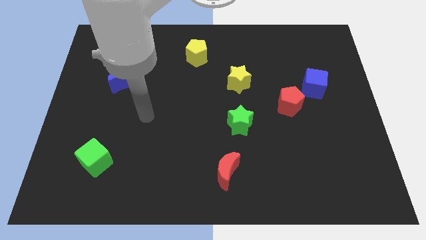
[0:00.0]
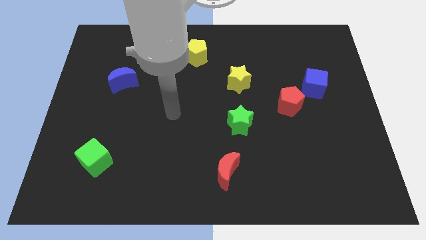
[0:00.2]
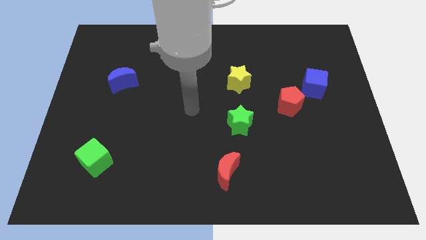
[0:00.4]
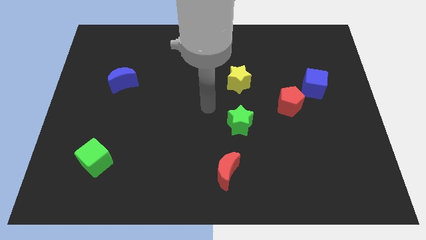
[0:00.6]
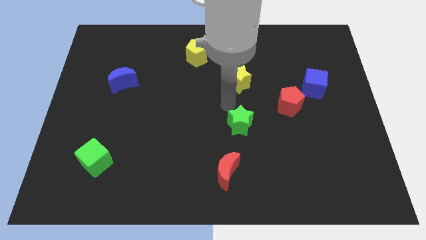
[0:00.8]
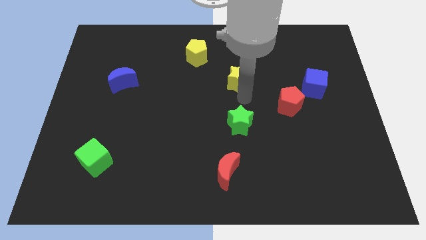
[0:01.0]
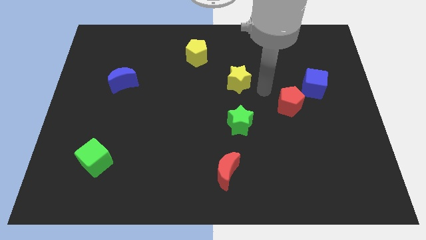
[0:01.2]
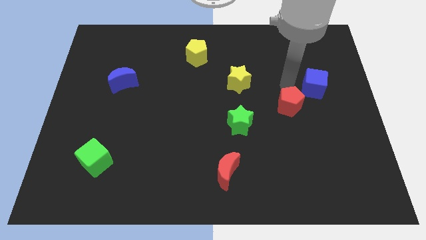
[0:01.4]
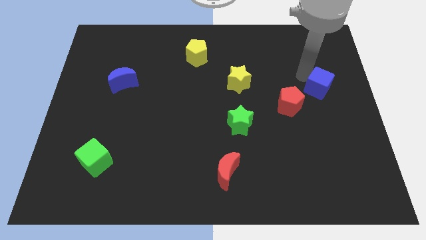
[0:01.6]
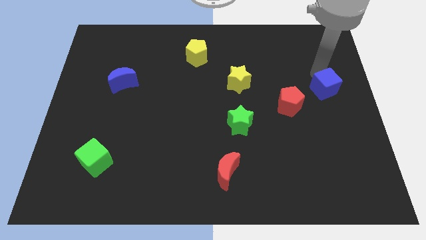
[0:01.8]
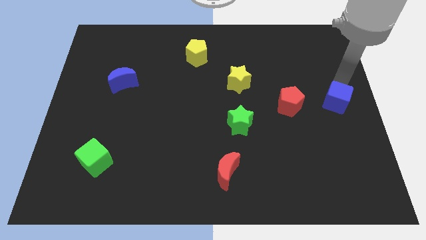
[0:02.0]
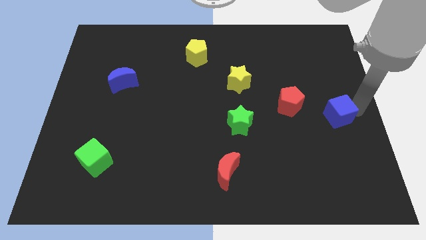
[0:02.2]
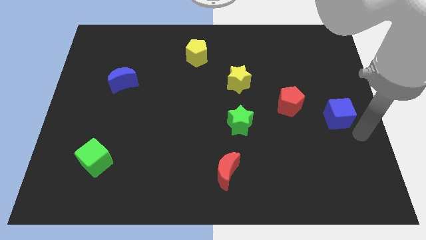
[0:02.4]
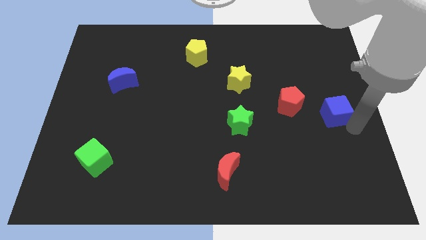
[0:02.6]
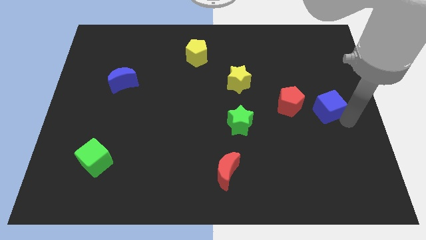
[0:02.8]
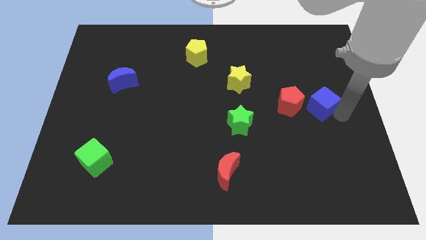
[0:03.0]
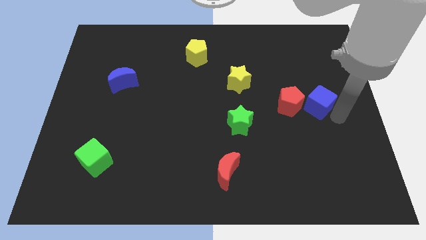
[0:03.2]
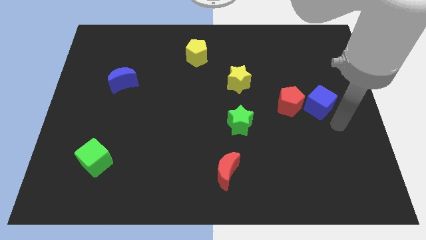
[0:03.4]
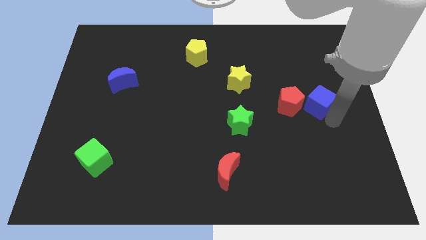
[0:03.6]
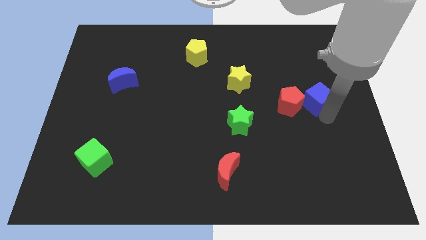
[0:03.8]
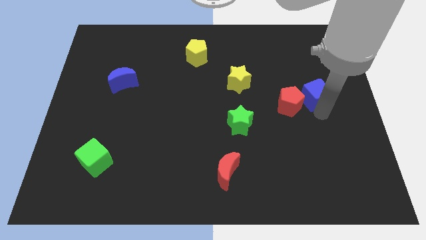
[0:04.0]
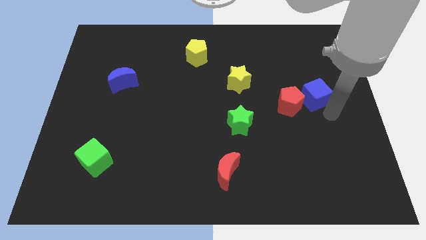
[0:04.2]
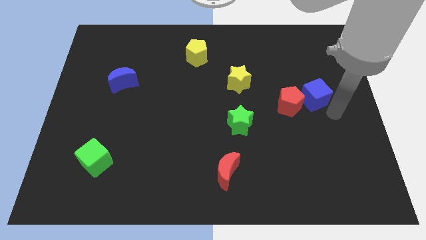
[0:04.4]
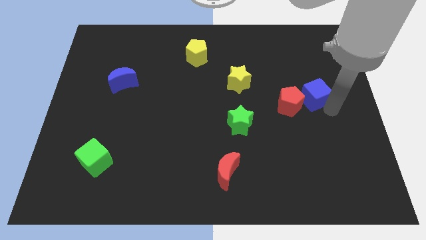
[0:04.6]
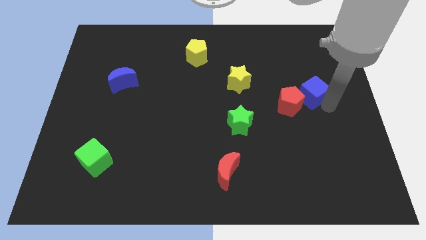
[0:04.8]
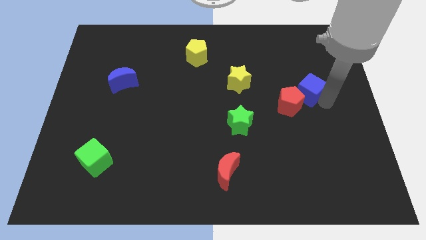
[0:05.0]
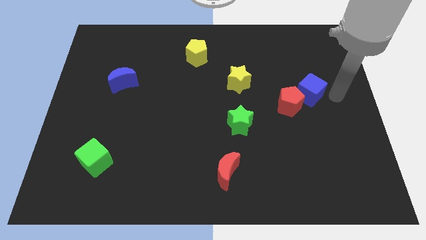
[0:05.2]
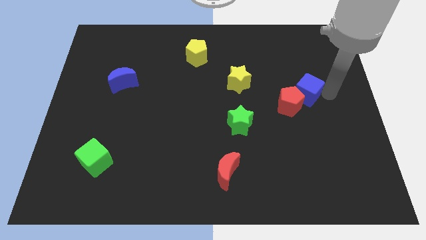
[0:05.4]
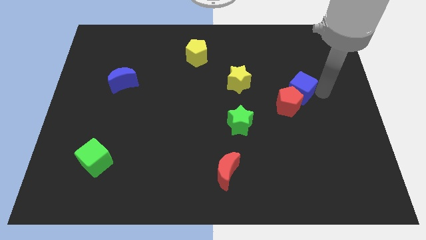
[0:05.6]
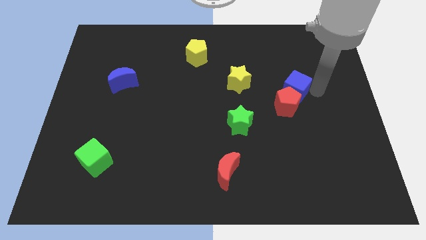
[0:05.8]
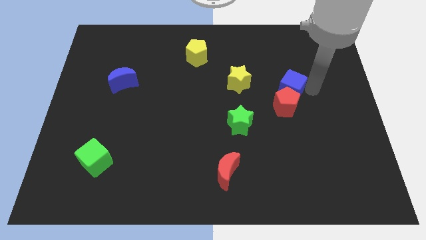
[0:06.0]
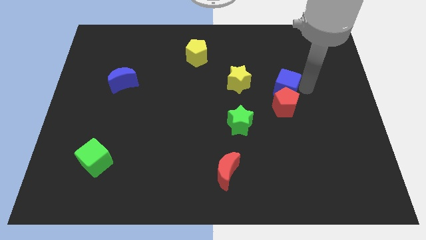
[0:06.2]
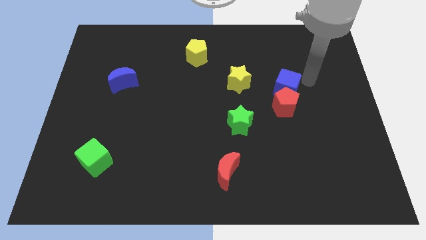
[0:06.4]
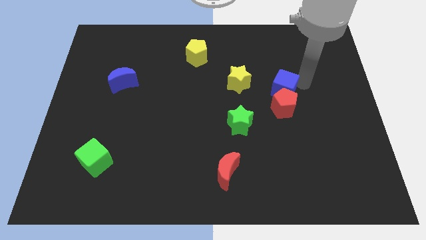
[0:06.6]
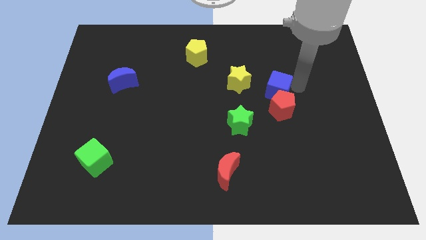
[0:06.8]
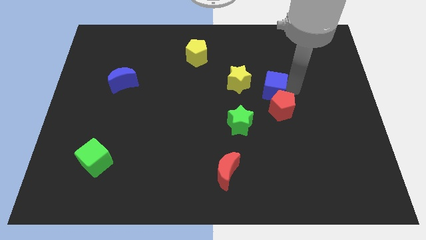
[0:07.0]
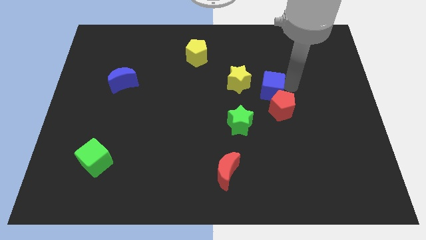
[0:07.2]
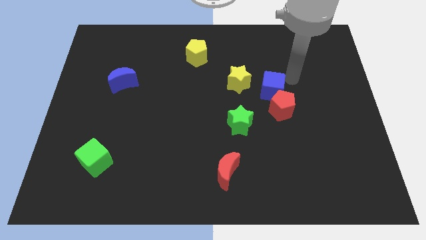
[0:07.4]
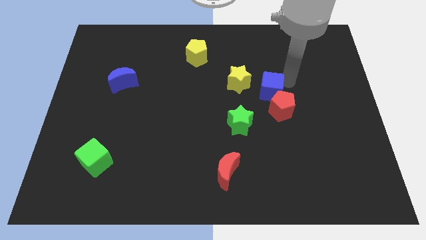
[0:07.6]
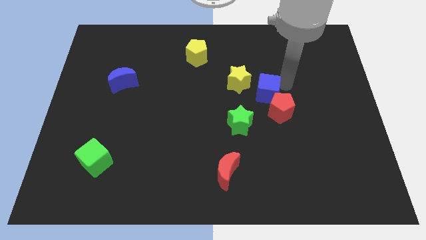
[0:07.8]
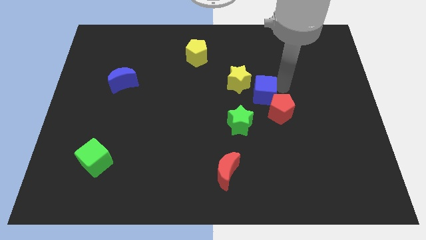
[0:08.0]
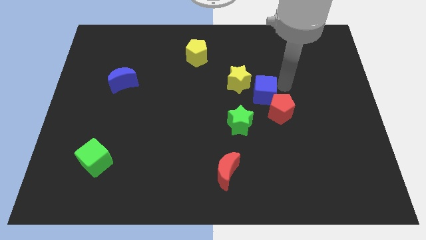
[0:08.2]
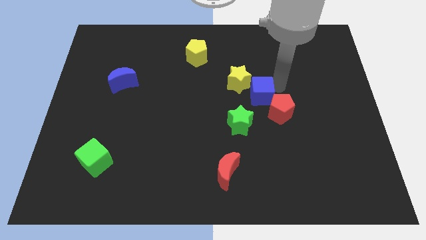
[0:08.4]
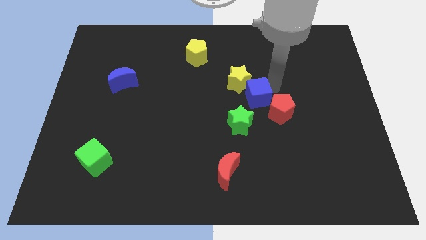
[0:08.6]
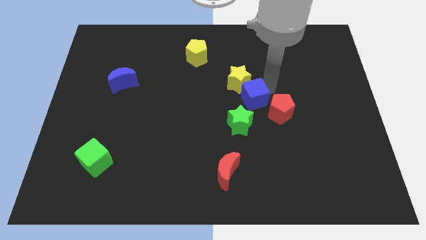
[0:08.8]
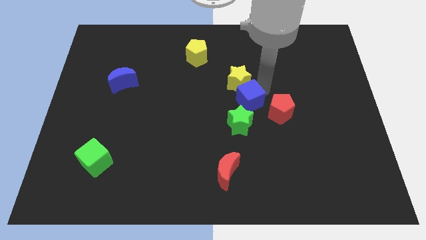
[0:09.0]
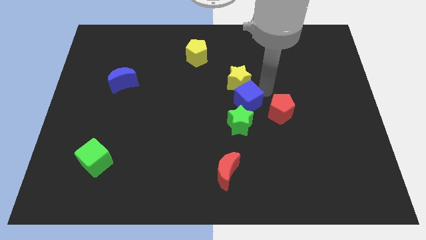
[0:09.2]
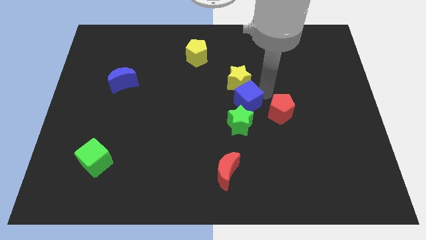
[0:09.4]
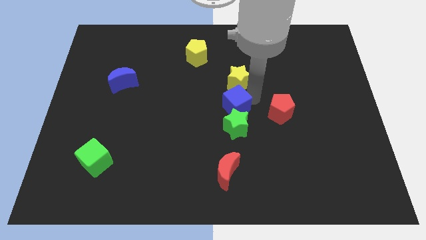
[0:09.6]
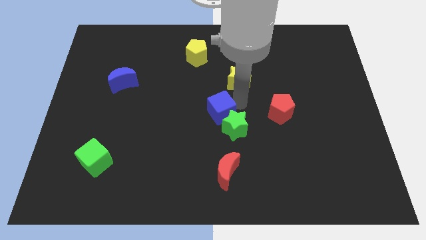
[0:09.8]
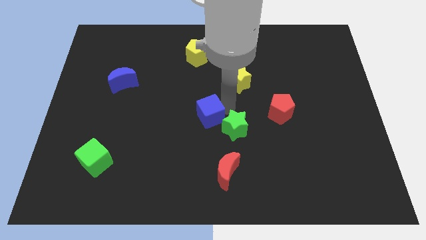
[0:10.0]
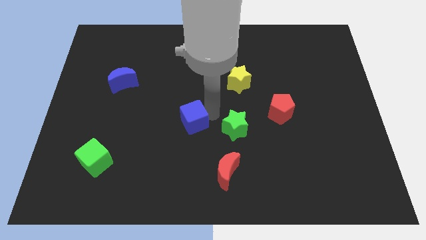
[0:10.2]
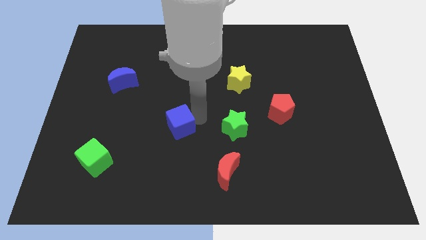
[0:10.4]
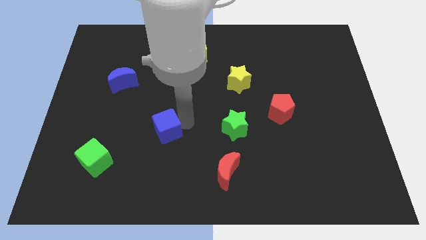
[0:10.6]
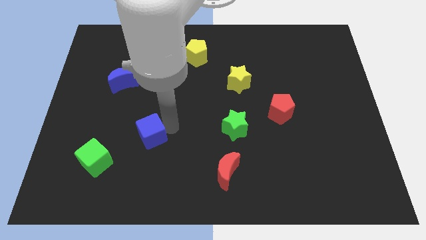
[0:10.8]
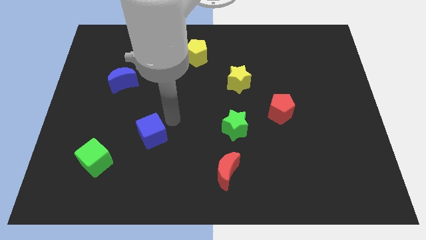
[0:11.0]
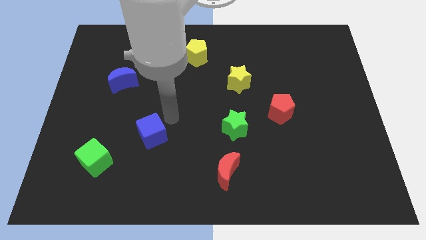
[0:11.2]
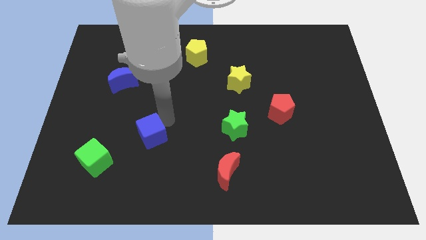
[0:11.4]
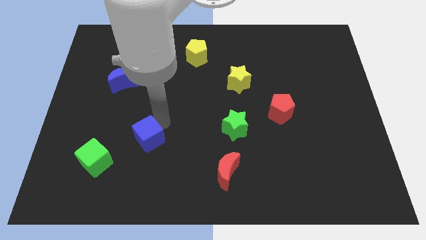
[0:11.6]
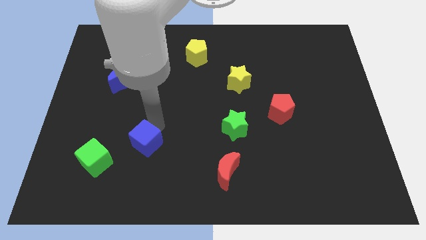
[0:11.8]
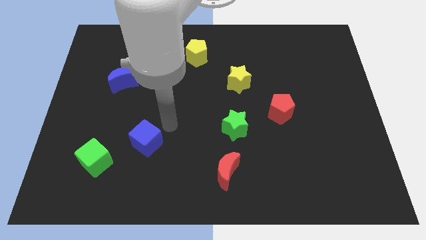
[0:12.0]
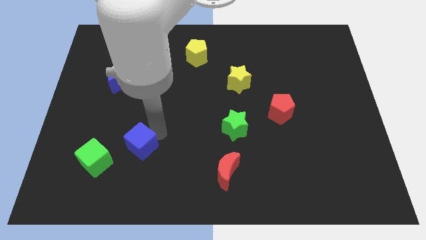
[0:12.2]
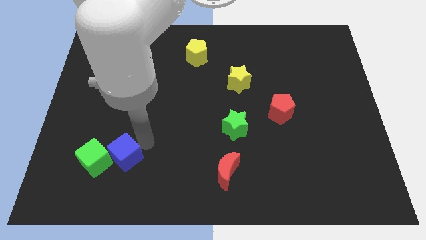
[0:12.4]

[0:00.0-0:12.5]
slide the blue cube towards the green cube

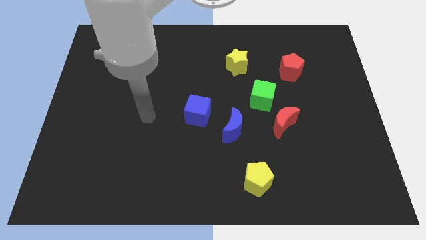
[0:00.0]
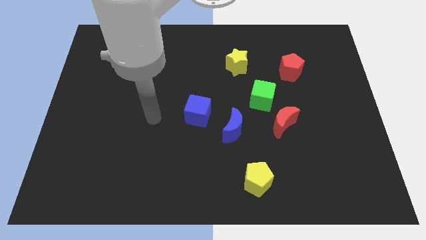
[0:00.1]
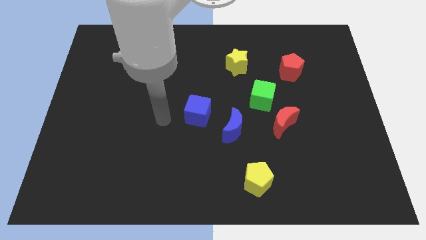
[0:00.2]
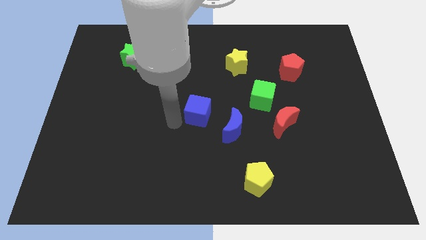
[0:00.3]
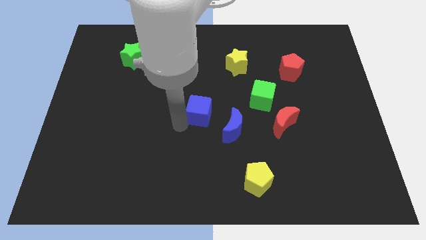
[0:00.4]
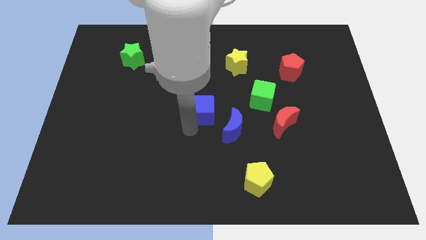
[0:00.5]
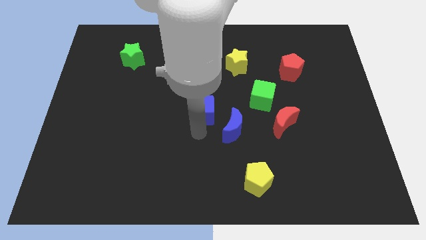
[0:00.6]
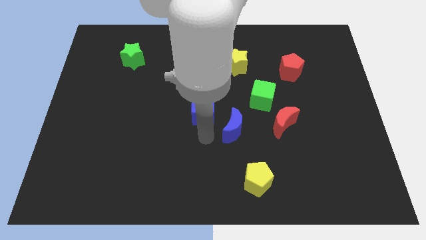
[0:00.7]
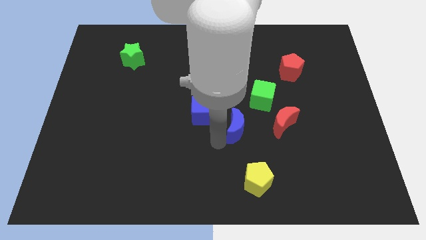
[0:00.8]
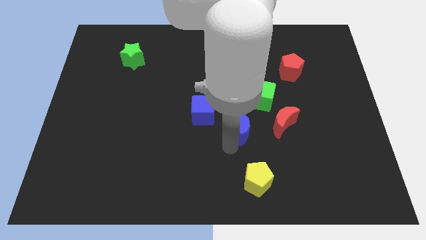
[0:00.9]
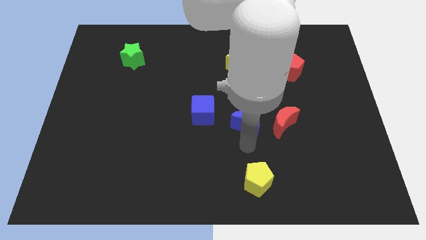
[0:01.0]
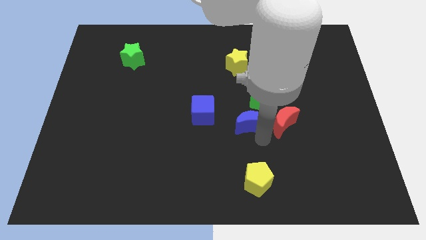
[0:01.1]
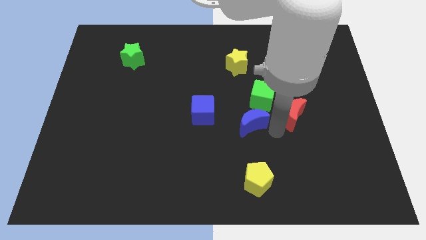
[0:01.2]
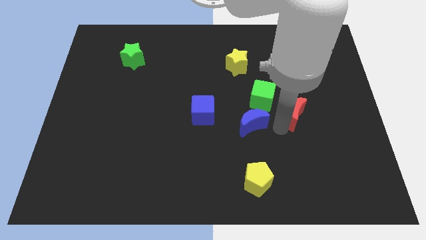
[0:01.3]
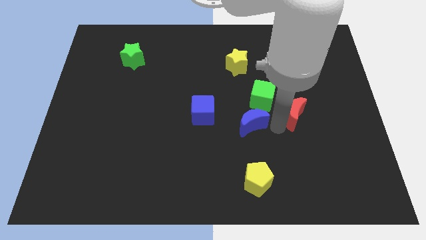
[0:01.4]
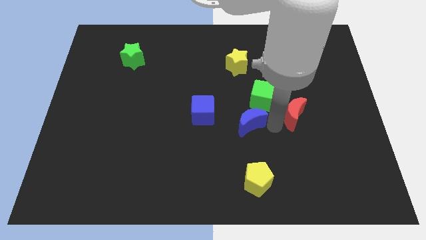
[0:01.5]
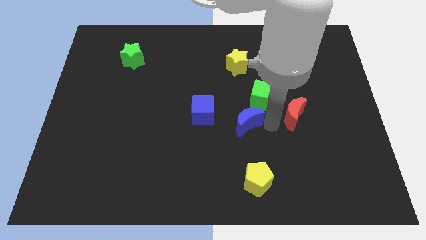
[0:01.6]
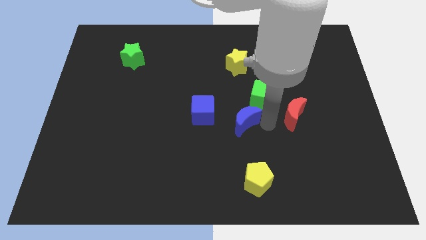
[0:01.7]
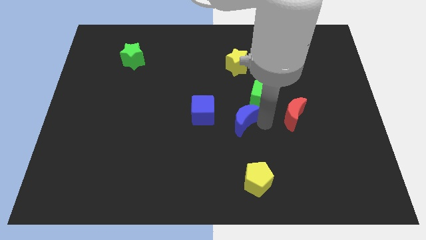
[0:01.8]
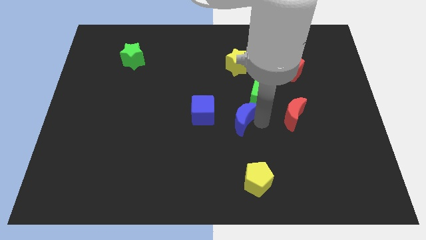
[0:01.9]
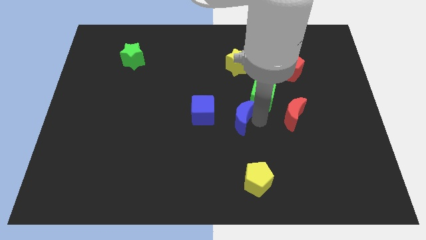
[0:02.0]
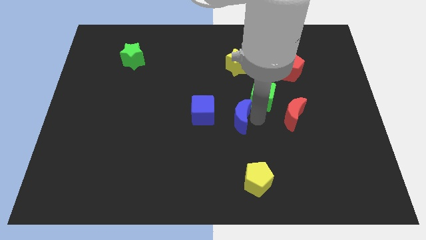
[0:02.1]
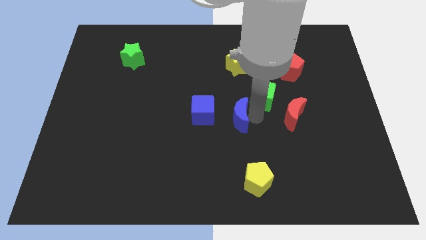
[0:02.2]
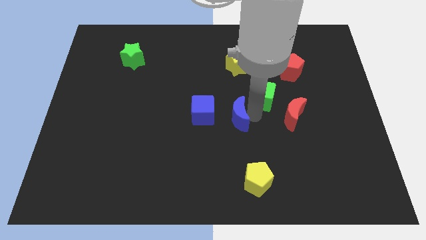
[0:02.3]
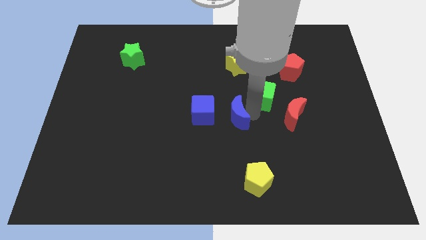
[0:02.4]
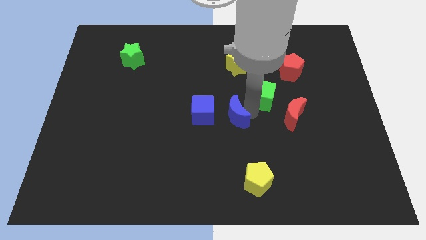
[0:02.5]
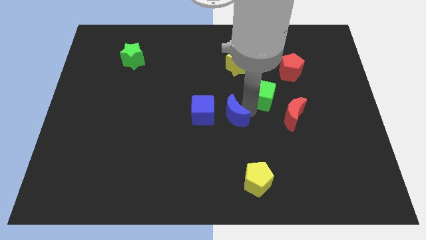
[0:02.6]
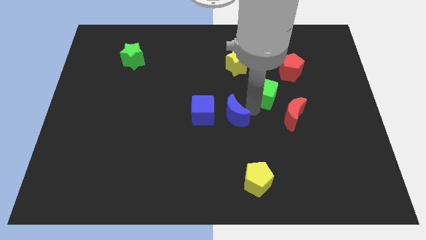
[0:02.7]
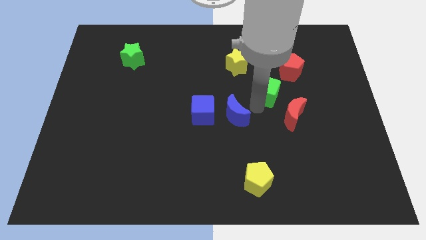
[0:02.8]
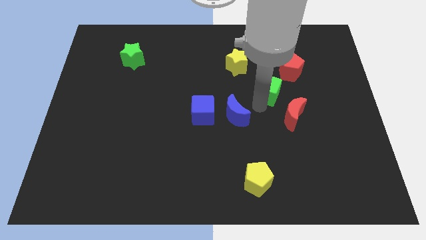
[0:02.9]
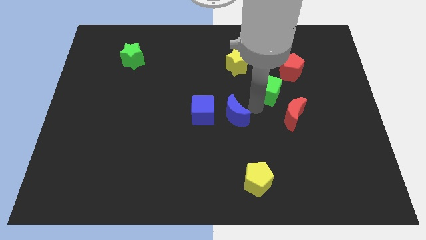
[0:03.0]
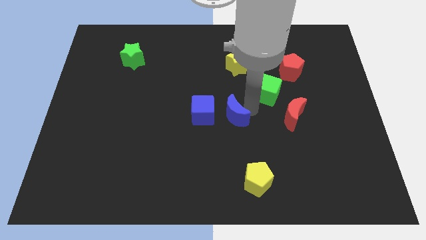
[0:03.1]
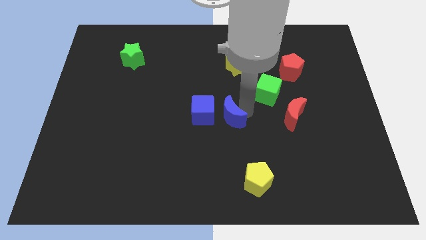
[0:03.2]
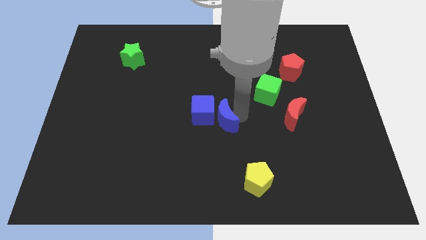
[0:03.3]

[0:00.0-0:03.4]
move the blue moon next to the blue cube
